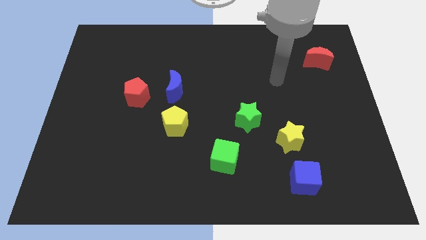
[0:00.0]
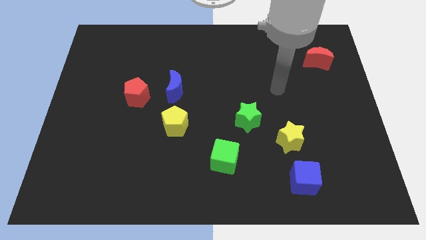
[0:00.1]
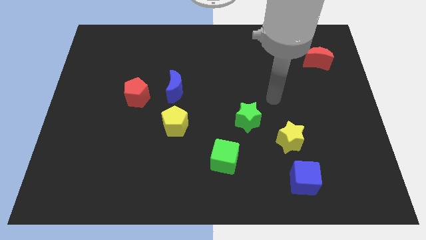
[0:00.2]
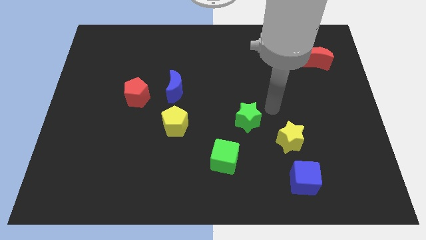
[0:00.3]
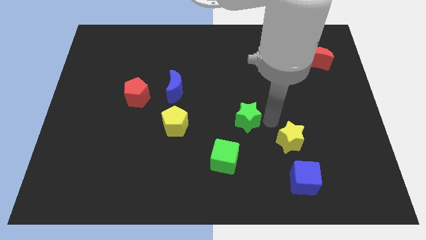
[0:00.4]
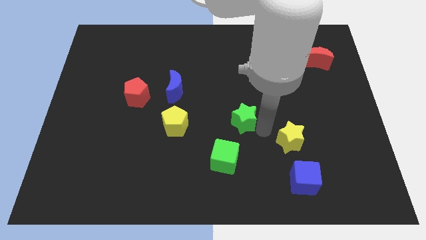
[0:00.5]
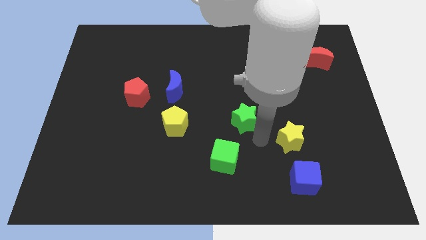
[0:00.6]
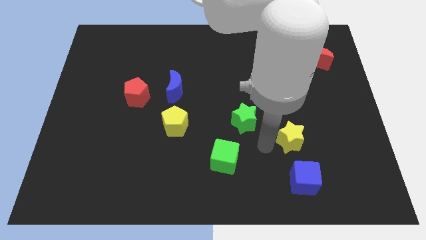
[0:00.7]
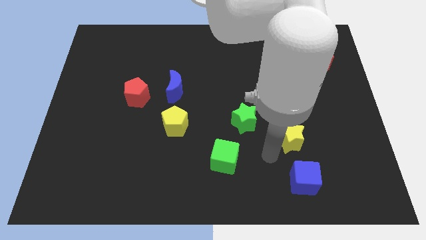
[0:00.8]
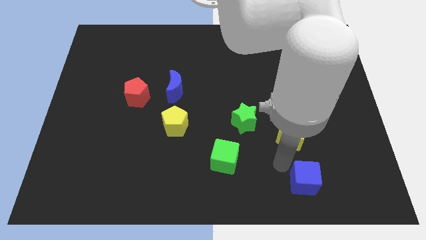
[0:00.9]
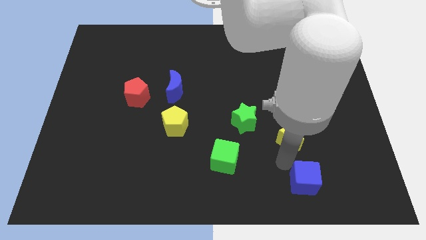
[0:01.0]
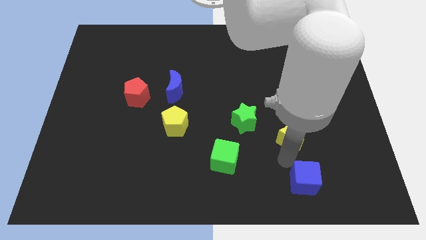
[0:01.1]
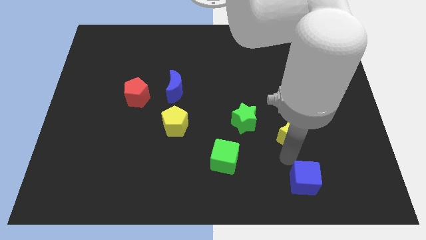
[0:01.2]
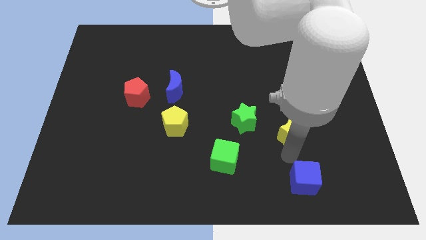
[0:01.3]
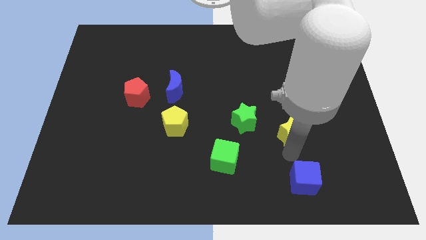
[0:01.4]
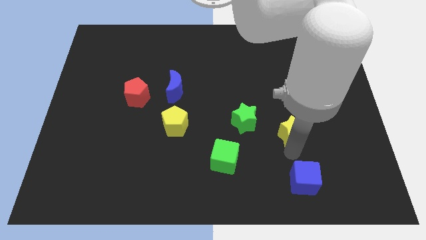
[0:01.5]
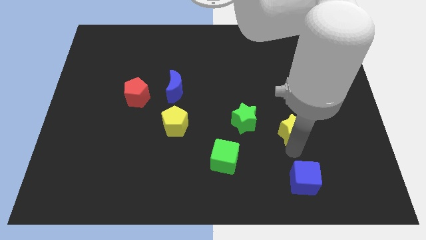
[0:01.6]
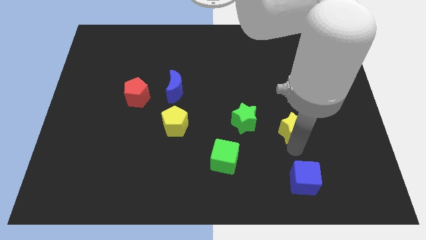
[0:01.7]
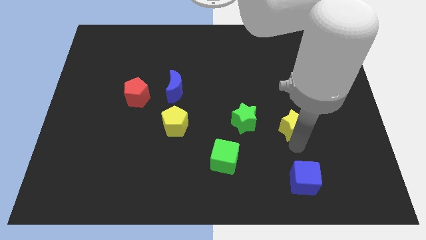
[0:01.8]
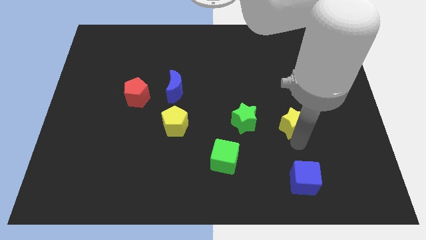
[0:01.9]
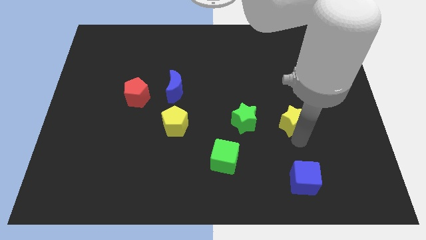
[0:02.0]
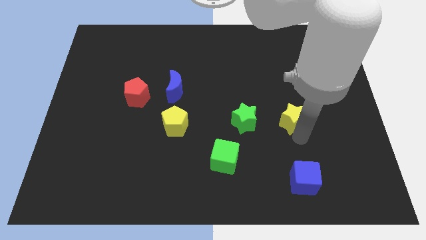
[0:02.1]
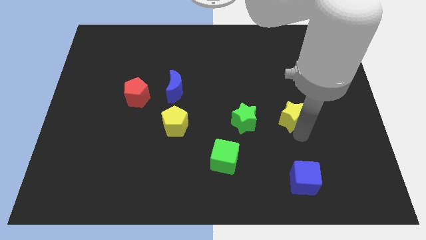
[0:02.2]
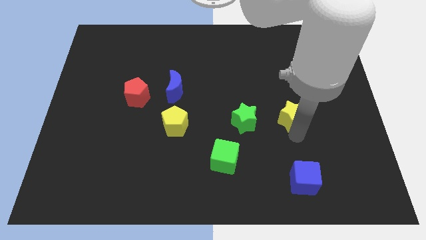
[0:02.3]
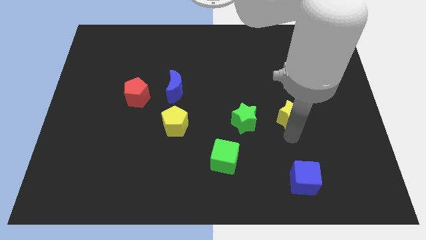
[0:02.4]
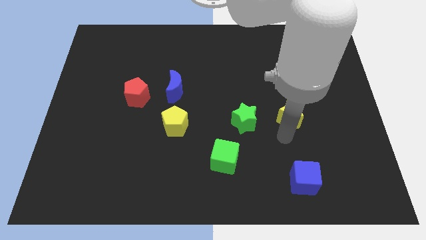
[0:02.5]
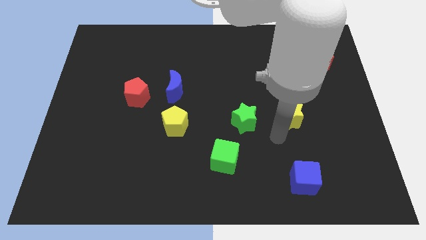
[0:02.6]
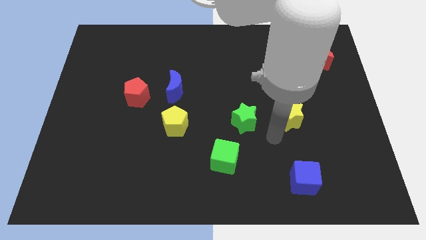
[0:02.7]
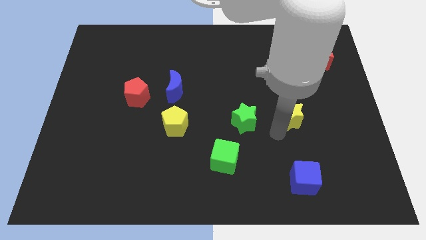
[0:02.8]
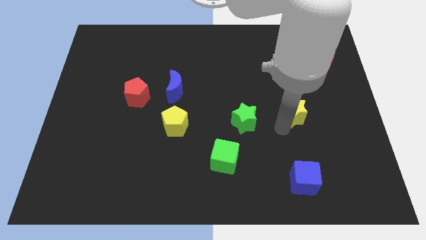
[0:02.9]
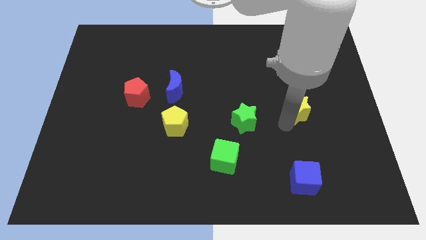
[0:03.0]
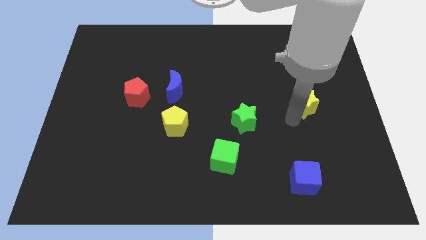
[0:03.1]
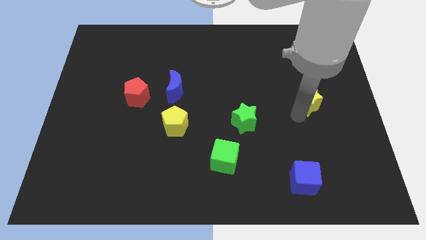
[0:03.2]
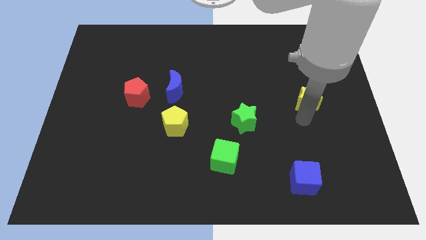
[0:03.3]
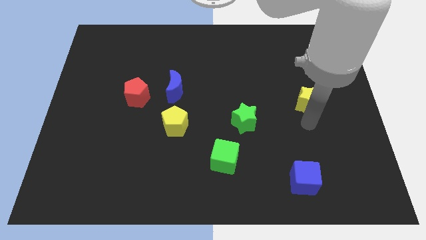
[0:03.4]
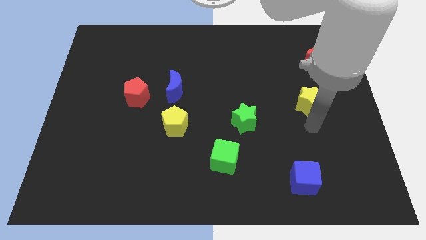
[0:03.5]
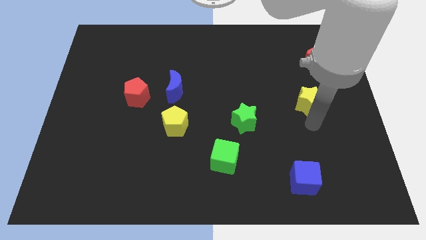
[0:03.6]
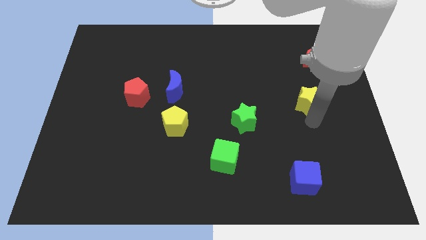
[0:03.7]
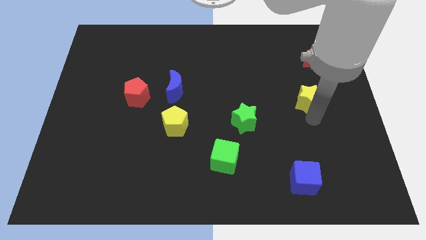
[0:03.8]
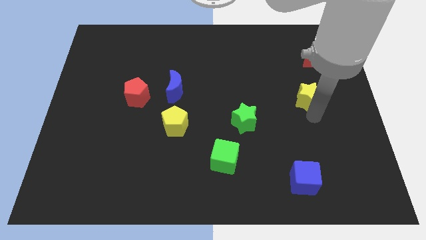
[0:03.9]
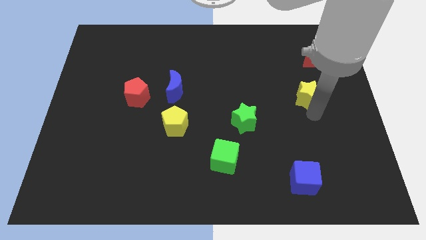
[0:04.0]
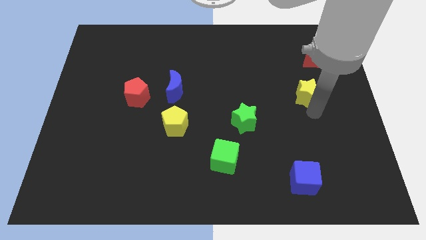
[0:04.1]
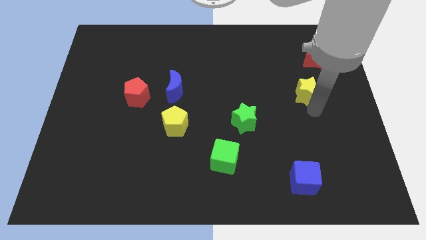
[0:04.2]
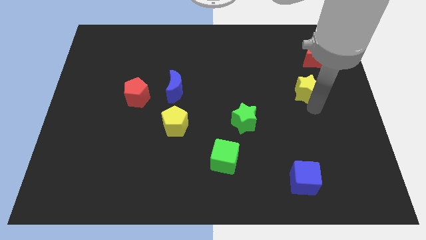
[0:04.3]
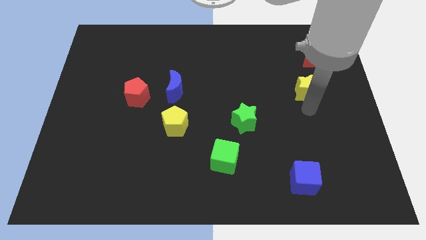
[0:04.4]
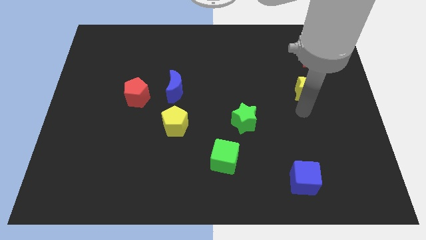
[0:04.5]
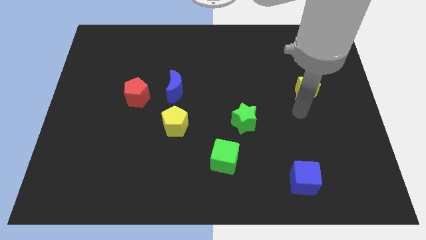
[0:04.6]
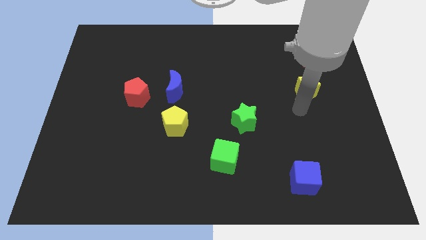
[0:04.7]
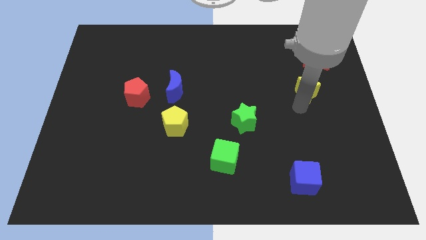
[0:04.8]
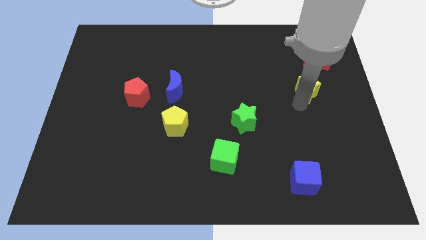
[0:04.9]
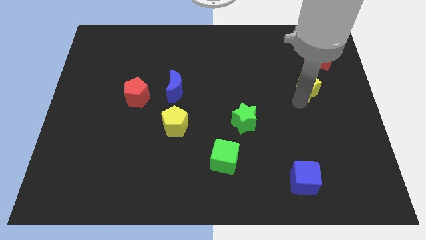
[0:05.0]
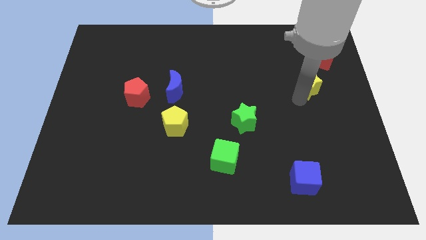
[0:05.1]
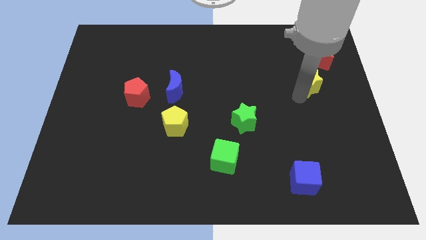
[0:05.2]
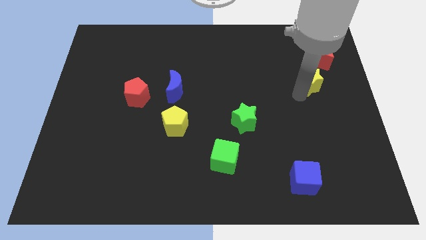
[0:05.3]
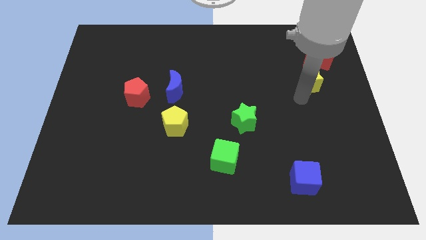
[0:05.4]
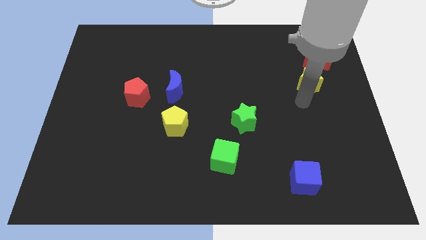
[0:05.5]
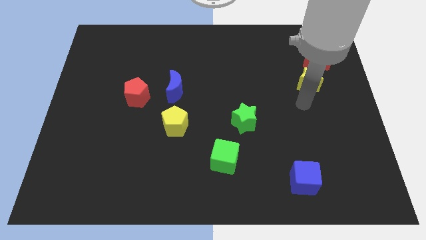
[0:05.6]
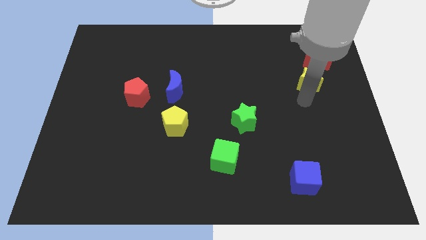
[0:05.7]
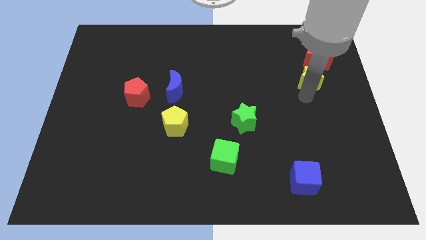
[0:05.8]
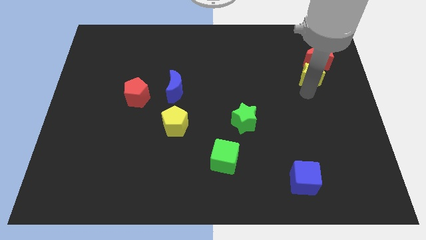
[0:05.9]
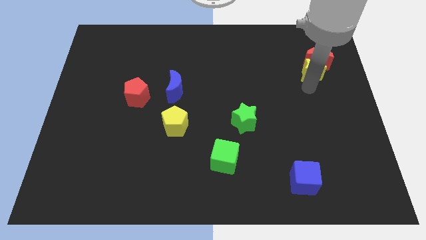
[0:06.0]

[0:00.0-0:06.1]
slide the yellow star towards the red moon

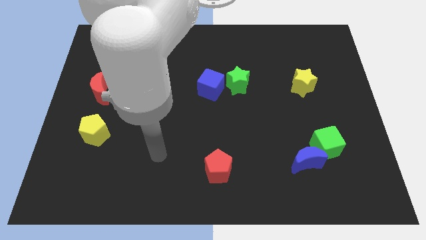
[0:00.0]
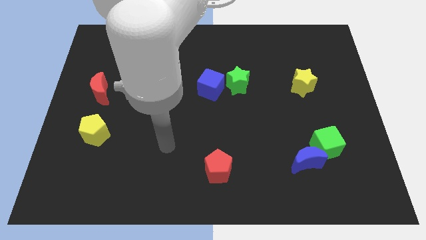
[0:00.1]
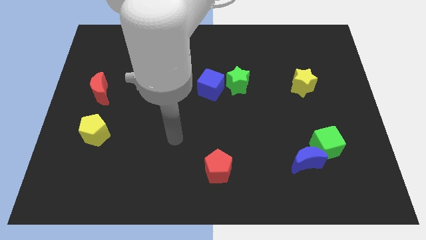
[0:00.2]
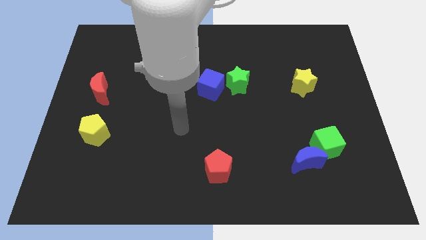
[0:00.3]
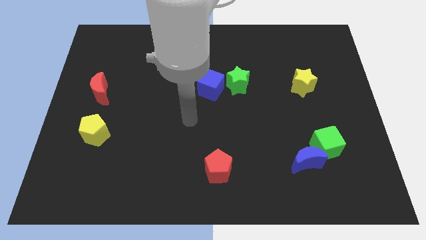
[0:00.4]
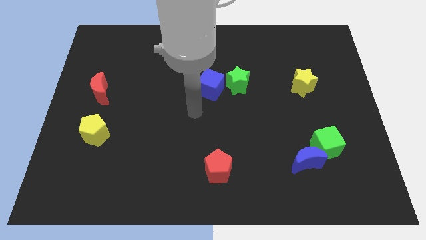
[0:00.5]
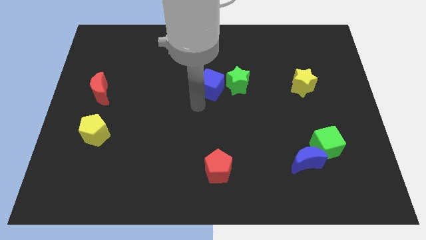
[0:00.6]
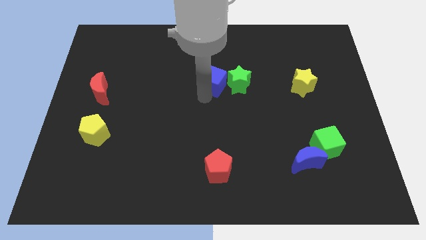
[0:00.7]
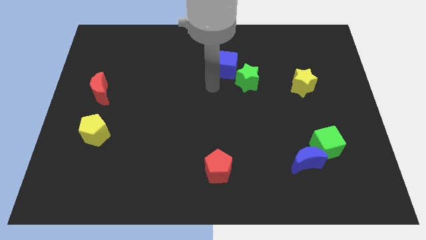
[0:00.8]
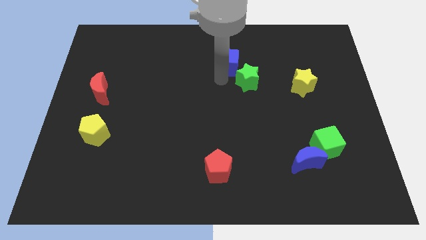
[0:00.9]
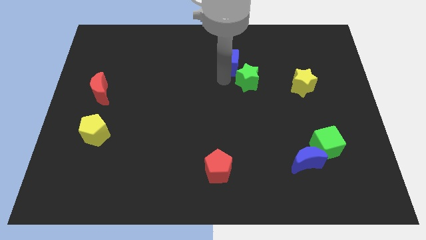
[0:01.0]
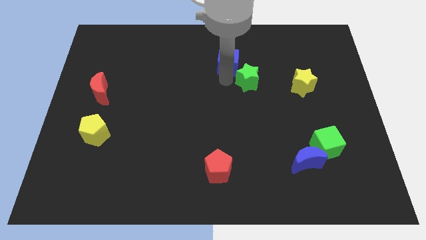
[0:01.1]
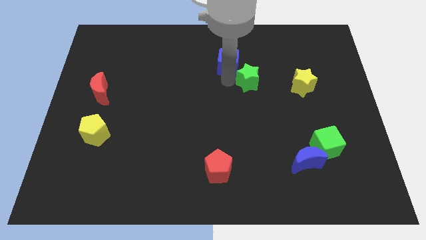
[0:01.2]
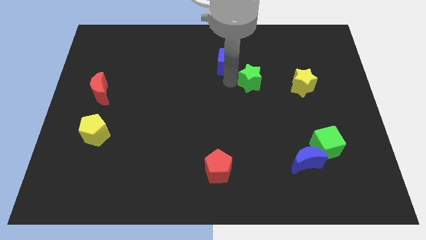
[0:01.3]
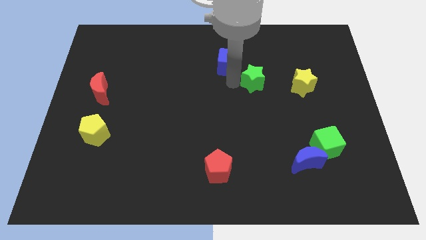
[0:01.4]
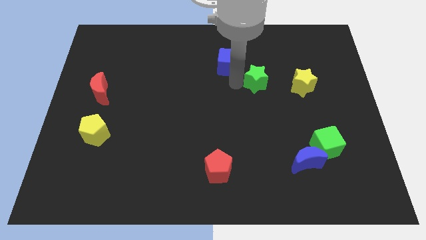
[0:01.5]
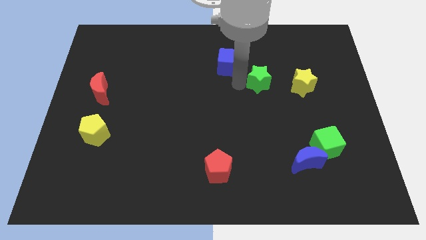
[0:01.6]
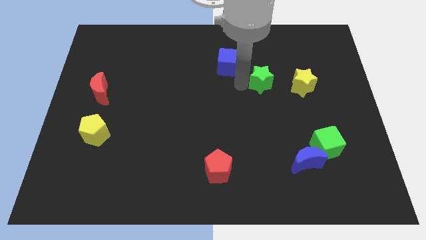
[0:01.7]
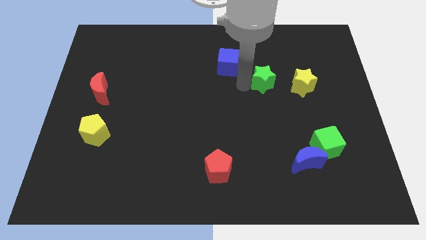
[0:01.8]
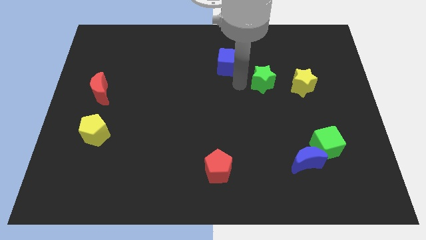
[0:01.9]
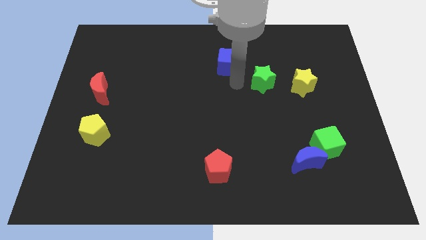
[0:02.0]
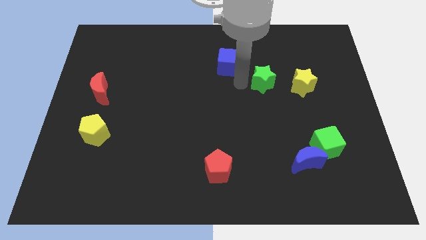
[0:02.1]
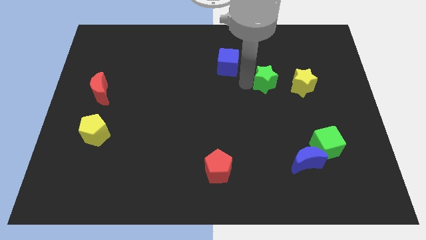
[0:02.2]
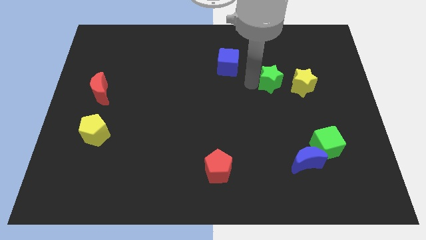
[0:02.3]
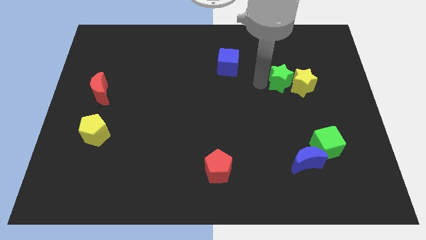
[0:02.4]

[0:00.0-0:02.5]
slide the green star next to the yellow star

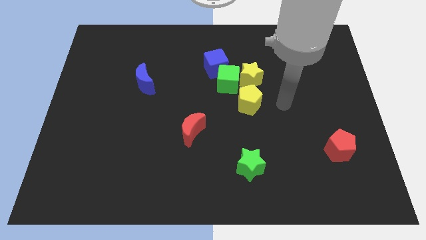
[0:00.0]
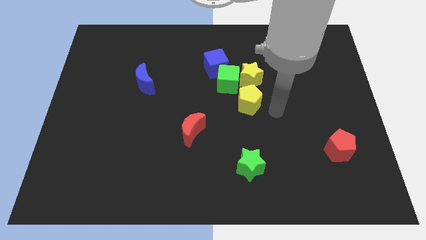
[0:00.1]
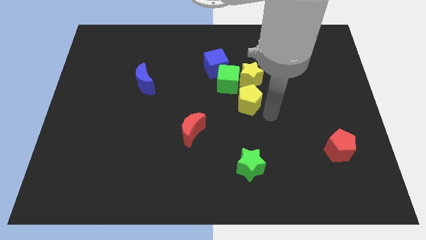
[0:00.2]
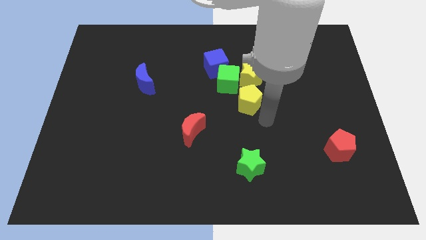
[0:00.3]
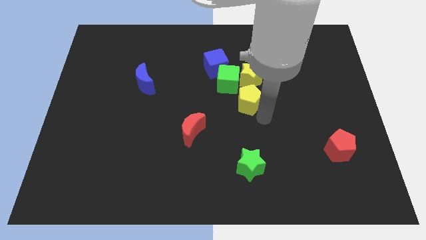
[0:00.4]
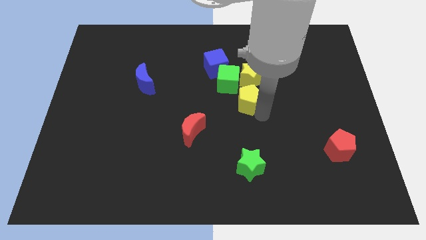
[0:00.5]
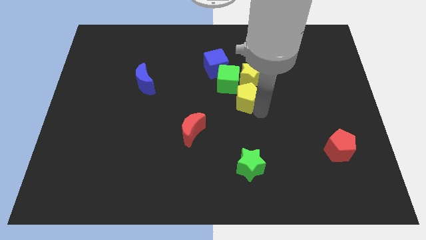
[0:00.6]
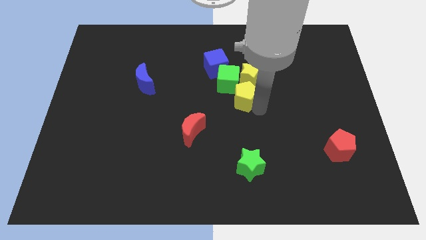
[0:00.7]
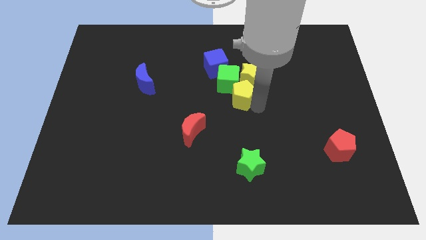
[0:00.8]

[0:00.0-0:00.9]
move the yellow pentagon towards the green cube
